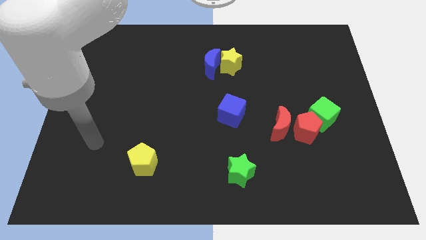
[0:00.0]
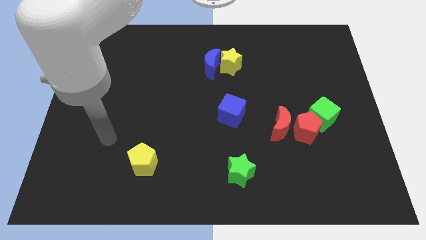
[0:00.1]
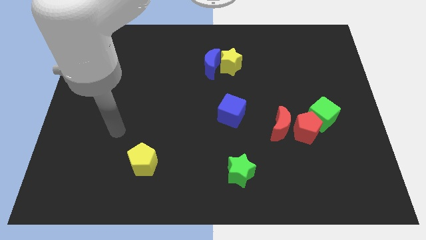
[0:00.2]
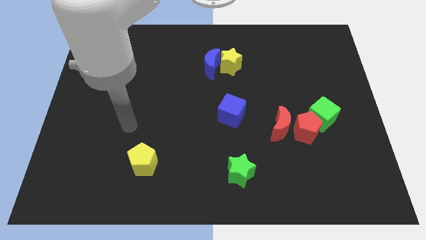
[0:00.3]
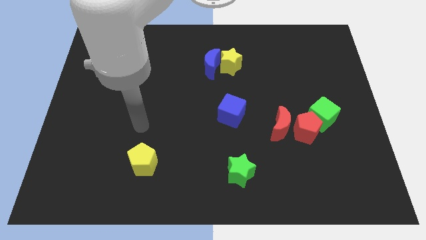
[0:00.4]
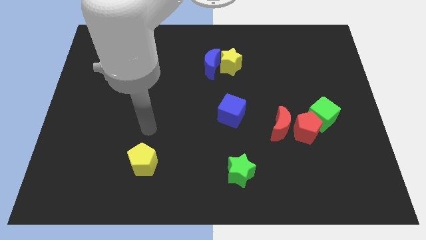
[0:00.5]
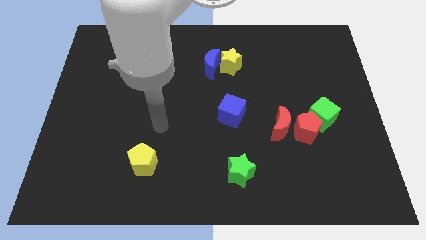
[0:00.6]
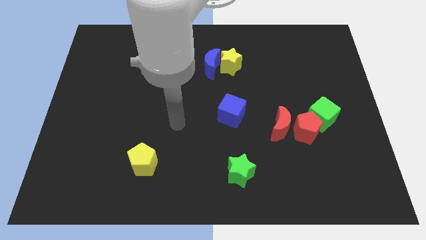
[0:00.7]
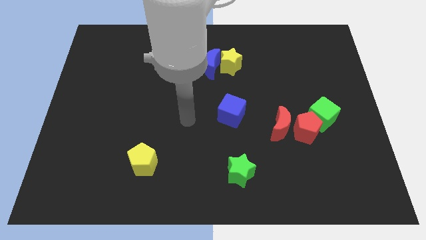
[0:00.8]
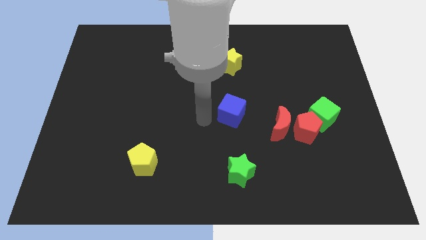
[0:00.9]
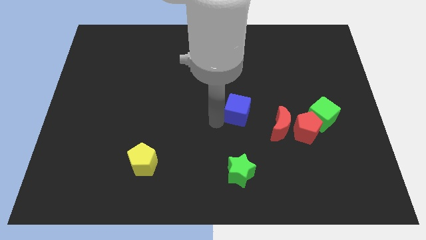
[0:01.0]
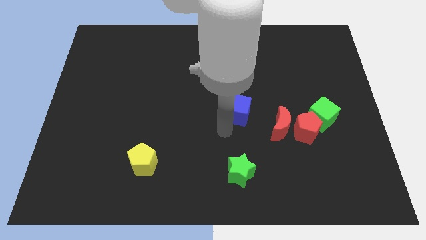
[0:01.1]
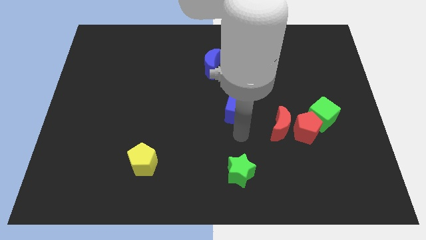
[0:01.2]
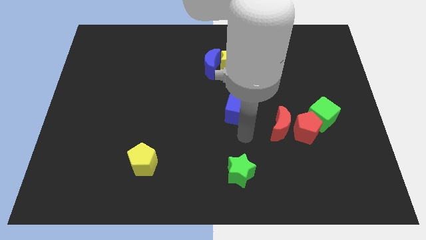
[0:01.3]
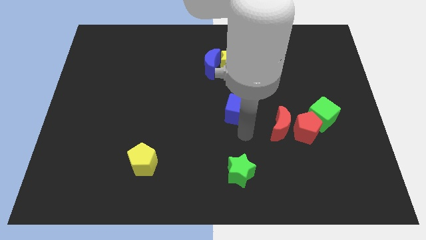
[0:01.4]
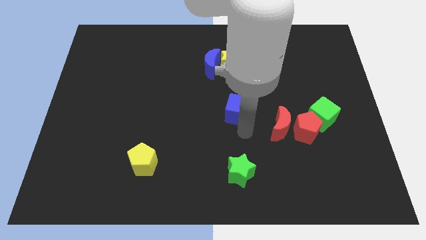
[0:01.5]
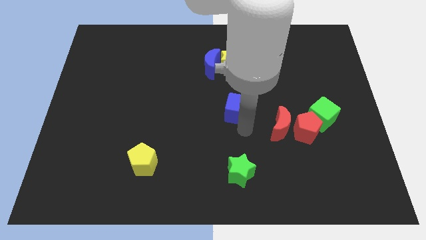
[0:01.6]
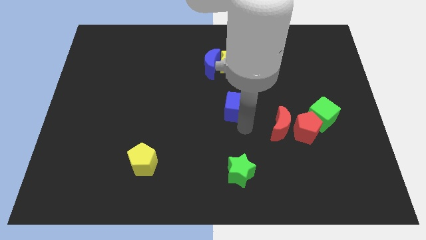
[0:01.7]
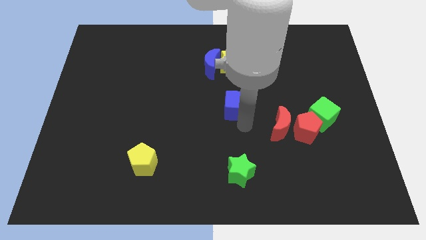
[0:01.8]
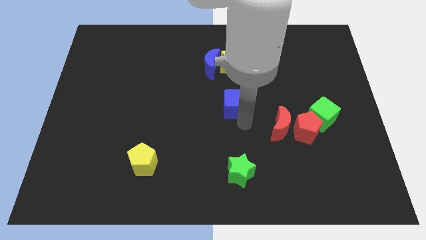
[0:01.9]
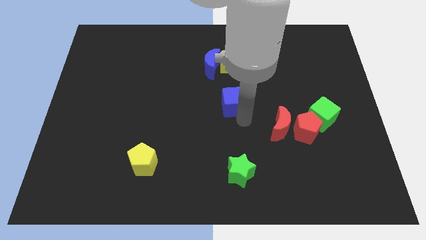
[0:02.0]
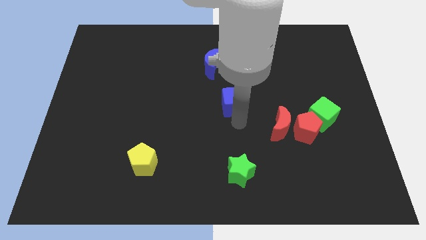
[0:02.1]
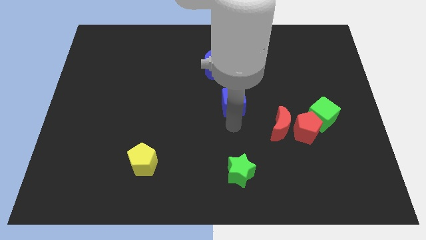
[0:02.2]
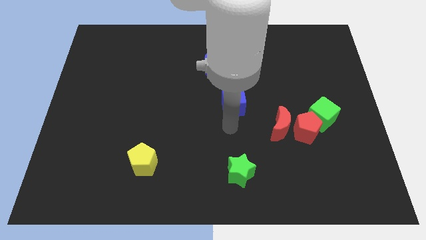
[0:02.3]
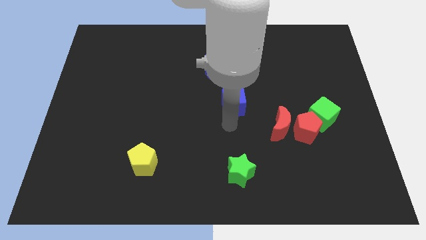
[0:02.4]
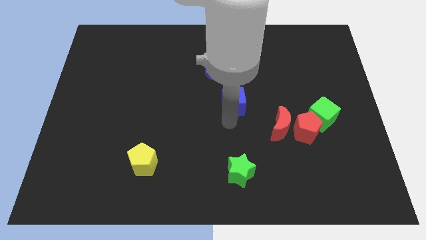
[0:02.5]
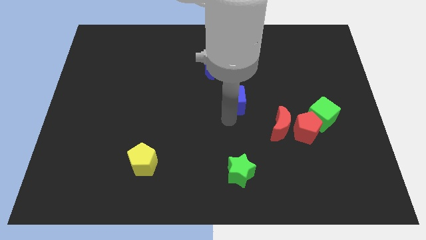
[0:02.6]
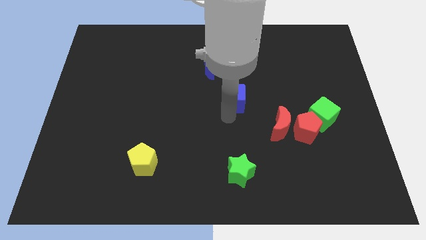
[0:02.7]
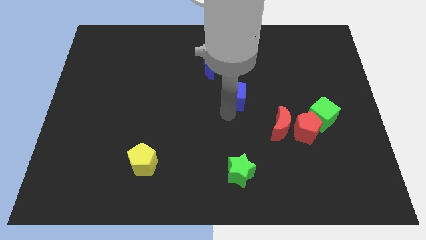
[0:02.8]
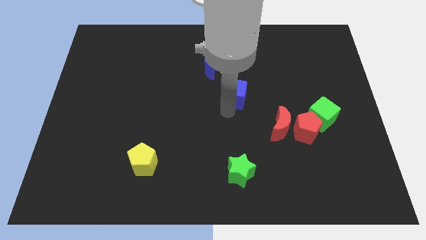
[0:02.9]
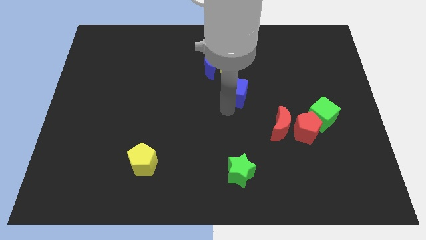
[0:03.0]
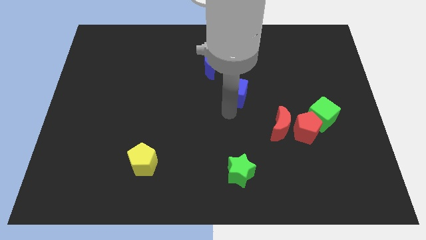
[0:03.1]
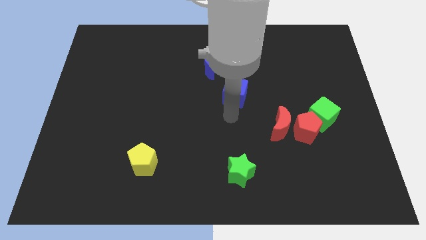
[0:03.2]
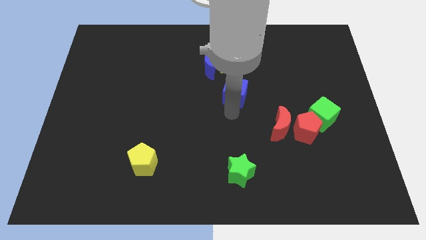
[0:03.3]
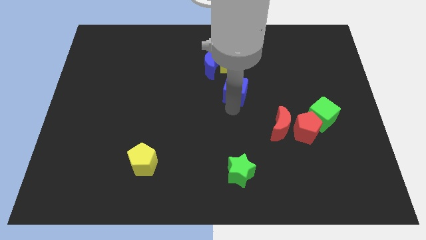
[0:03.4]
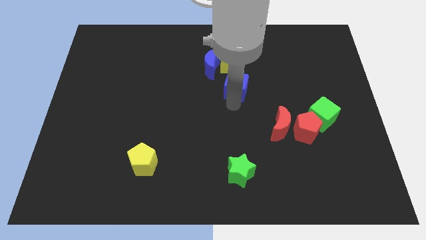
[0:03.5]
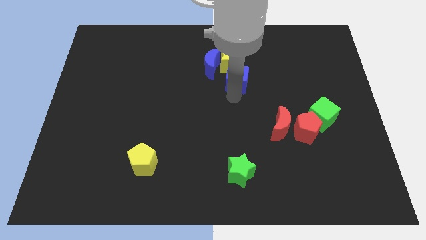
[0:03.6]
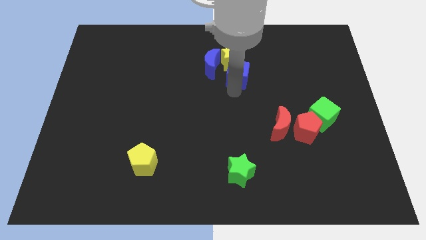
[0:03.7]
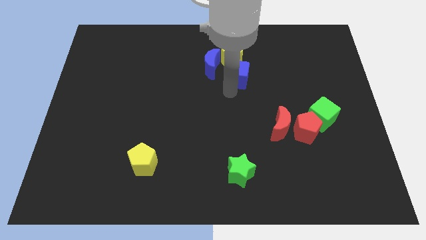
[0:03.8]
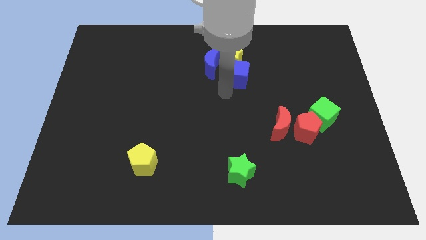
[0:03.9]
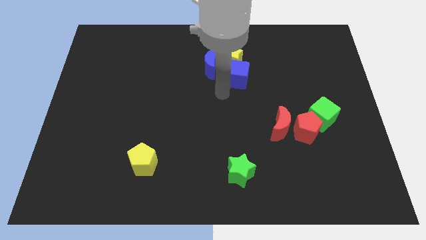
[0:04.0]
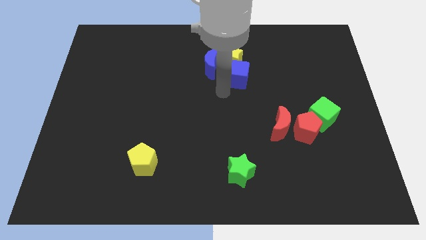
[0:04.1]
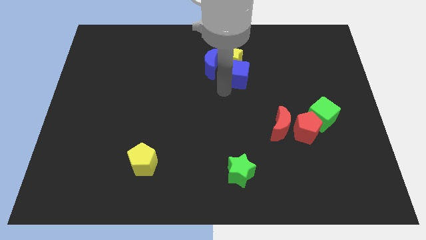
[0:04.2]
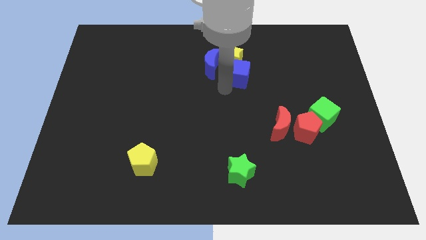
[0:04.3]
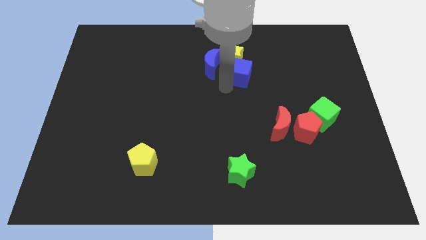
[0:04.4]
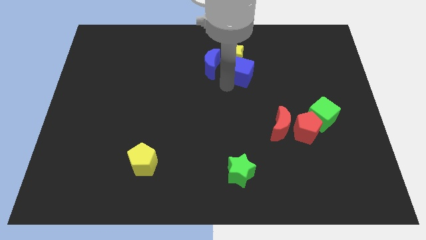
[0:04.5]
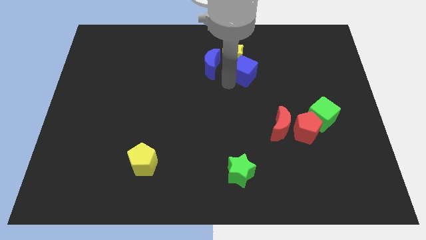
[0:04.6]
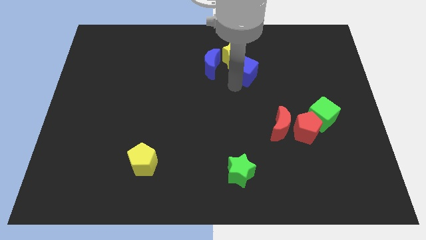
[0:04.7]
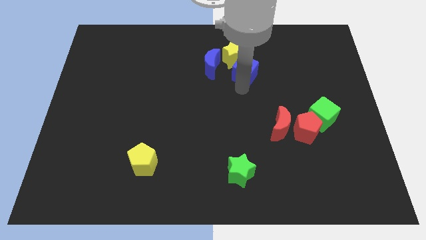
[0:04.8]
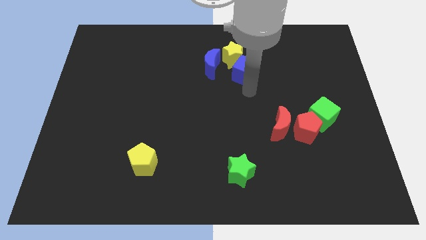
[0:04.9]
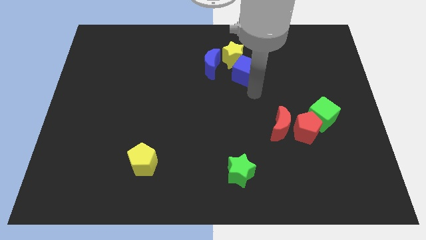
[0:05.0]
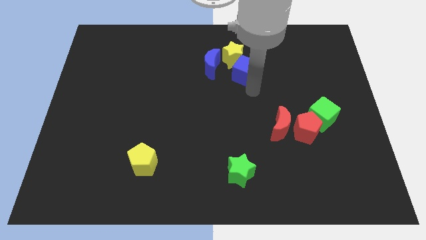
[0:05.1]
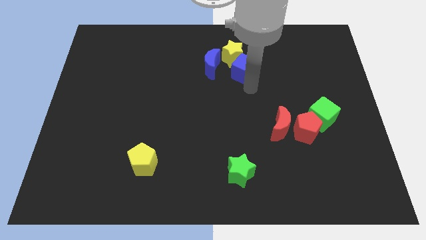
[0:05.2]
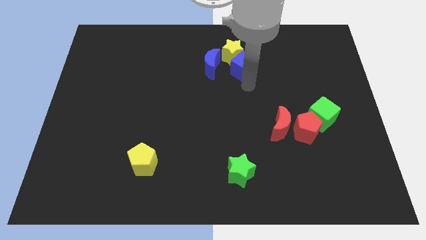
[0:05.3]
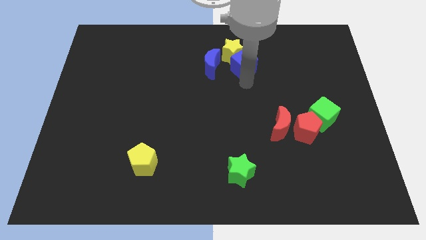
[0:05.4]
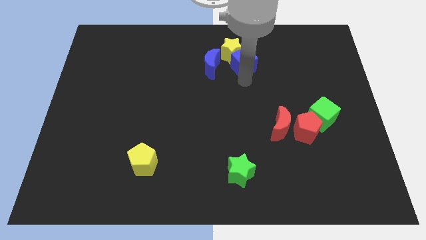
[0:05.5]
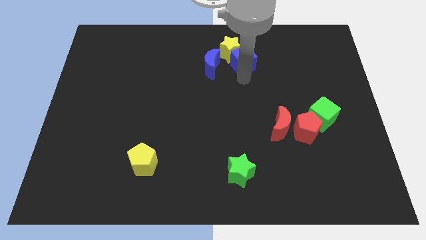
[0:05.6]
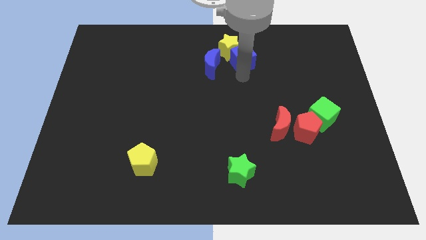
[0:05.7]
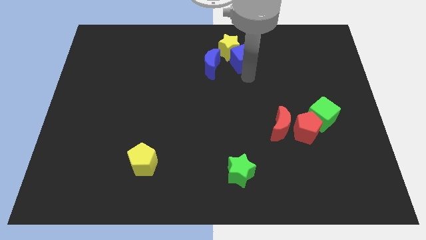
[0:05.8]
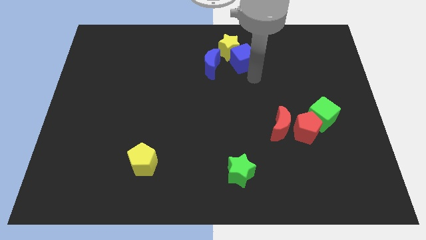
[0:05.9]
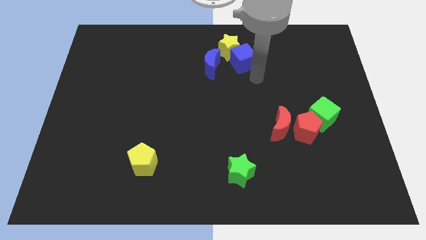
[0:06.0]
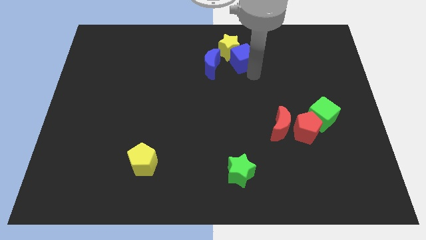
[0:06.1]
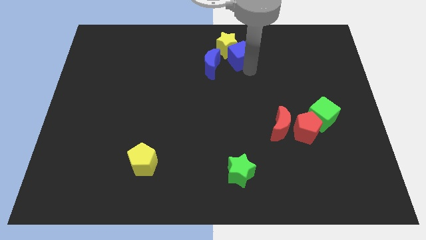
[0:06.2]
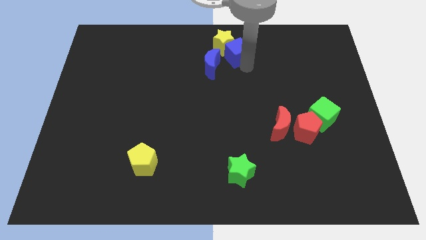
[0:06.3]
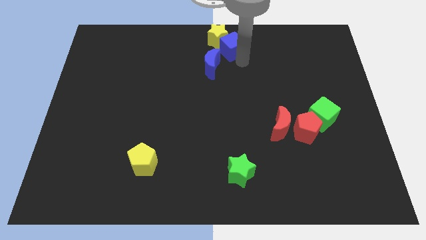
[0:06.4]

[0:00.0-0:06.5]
put the blue cube to the top
